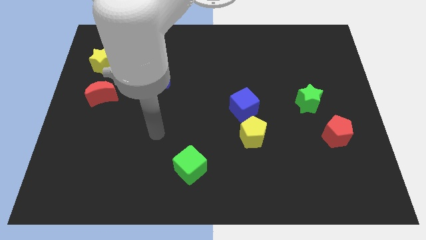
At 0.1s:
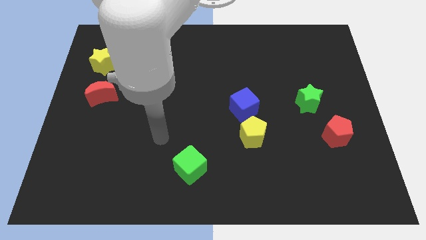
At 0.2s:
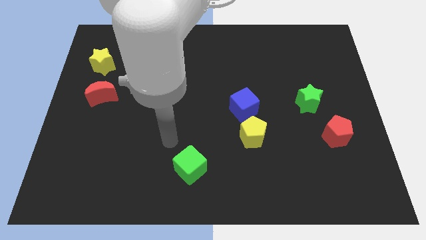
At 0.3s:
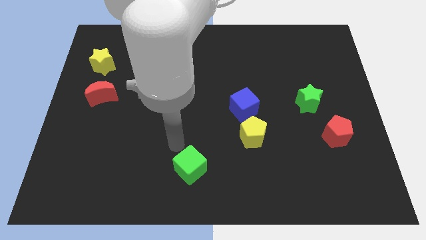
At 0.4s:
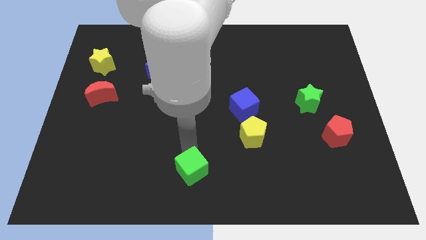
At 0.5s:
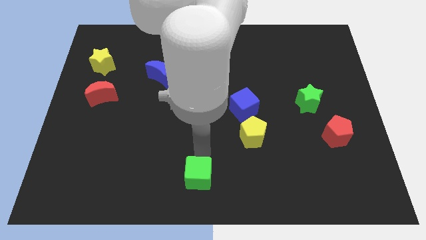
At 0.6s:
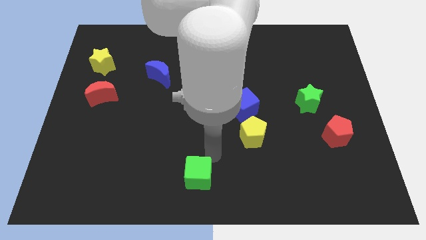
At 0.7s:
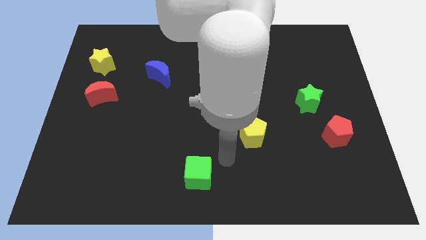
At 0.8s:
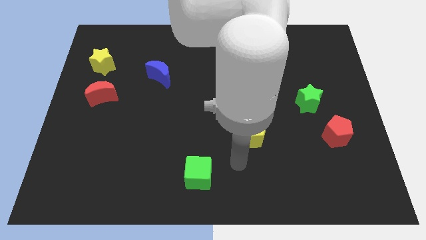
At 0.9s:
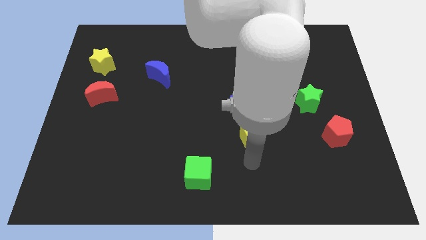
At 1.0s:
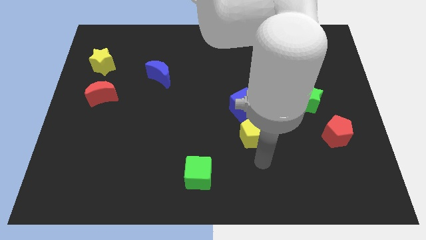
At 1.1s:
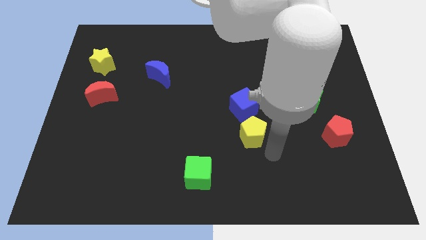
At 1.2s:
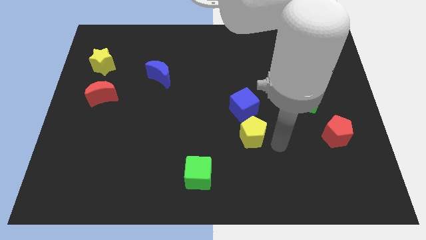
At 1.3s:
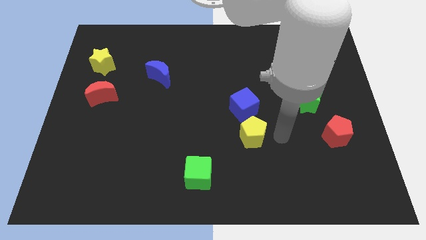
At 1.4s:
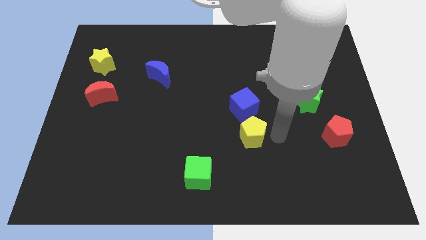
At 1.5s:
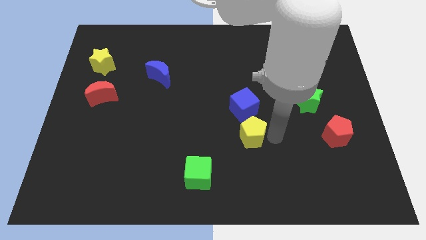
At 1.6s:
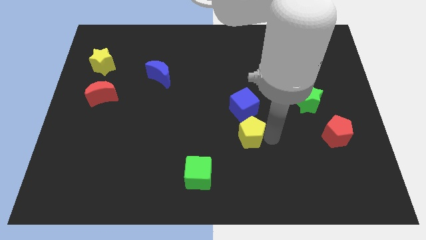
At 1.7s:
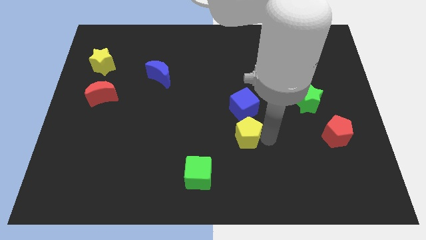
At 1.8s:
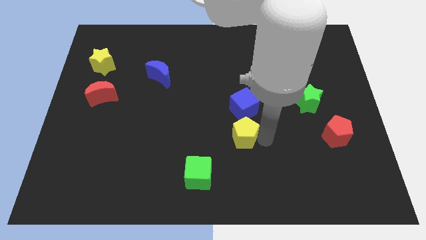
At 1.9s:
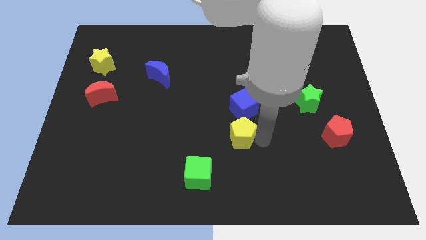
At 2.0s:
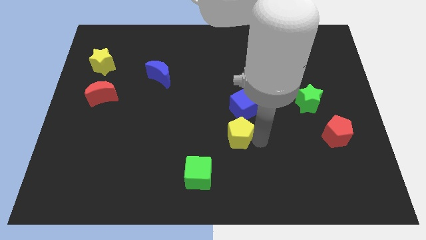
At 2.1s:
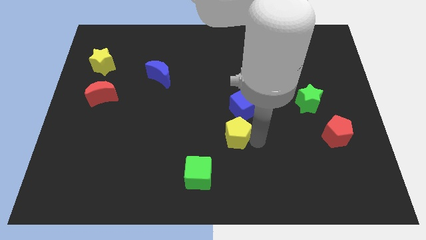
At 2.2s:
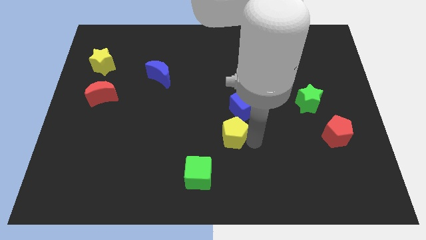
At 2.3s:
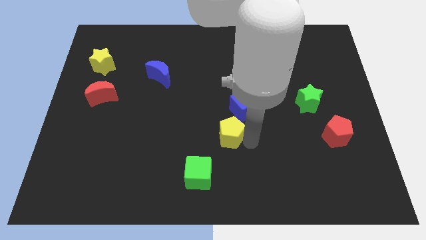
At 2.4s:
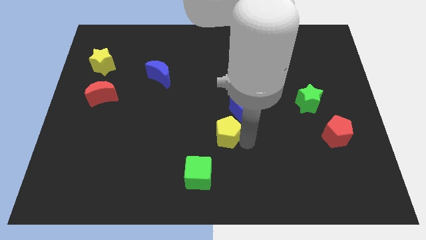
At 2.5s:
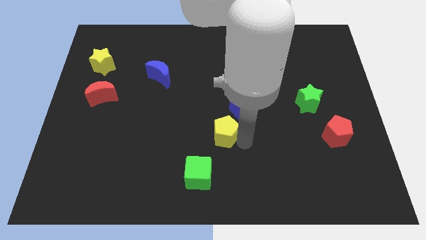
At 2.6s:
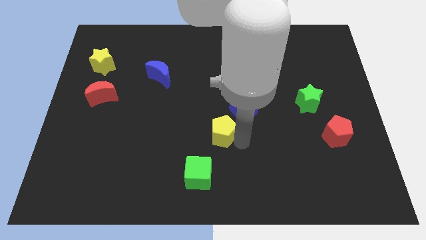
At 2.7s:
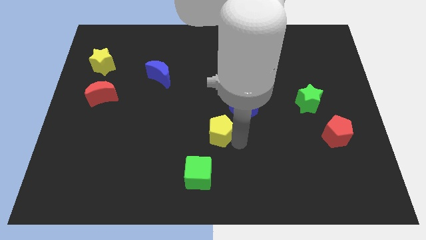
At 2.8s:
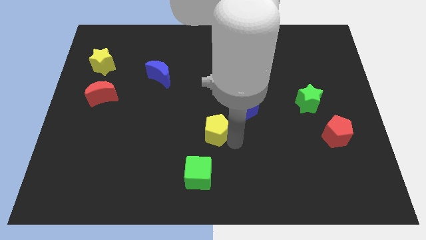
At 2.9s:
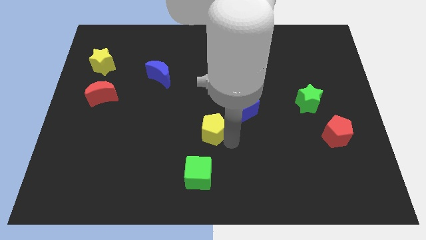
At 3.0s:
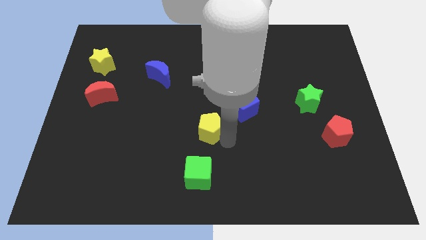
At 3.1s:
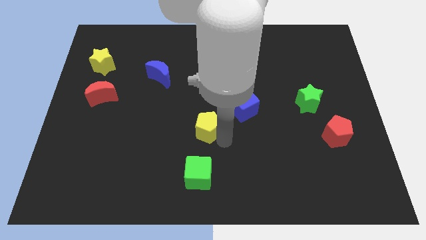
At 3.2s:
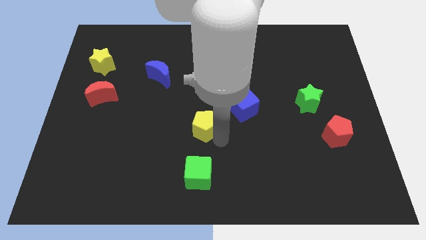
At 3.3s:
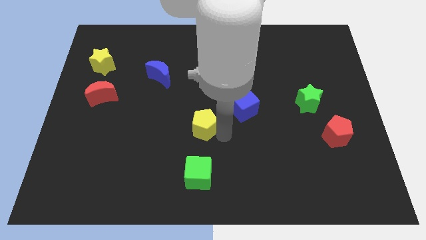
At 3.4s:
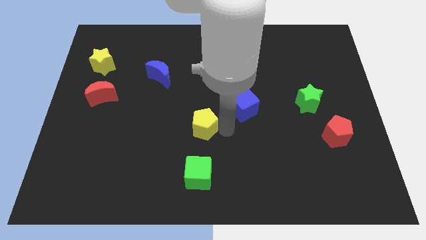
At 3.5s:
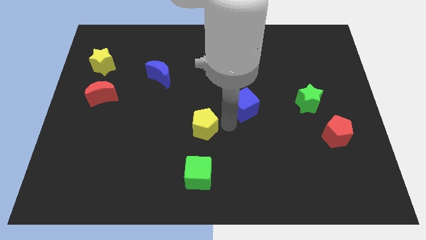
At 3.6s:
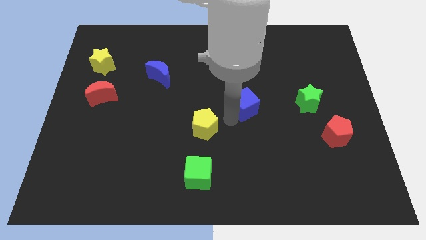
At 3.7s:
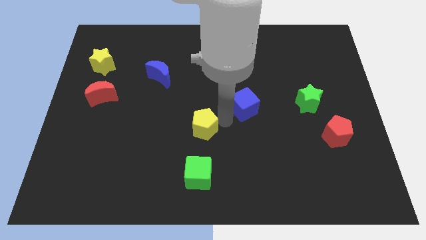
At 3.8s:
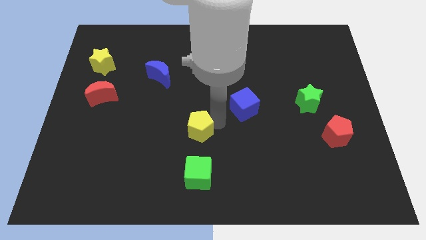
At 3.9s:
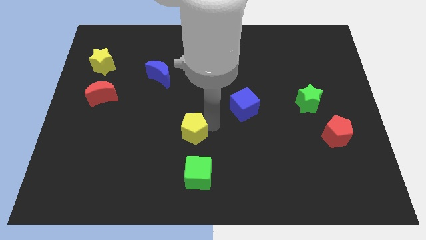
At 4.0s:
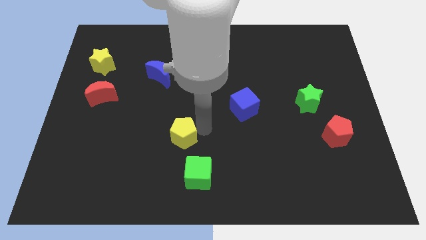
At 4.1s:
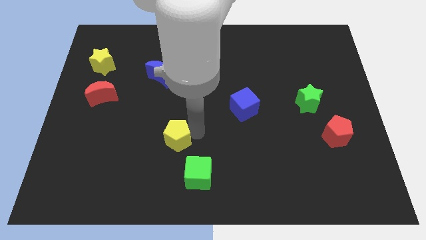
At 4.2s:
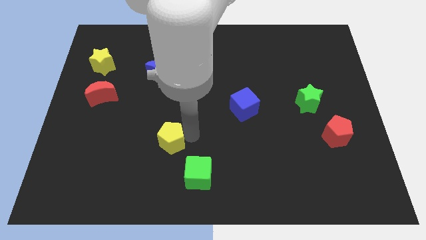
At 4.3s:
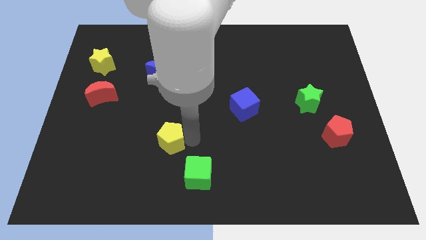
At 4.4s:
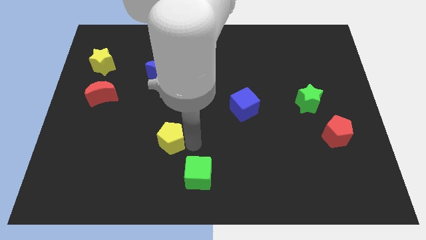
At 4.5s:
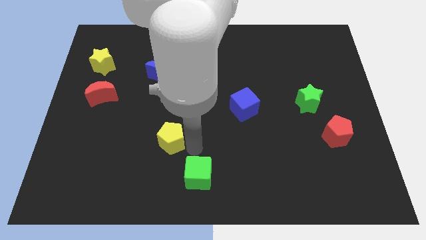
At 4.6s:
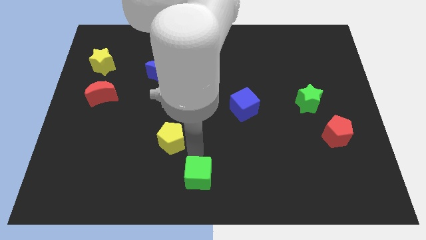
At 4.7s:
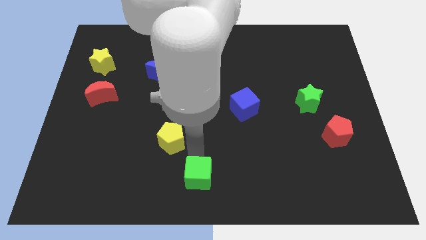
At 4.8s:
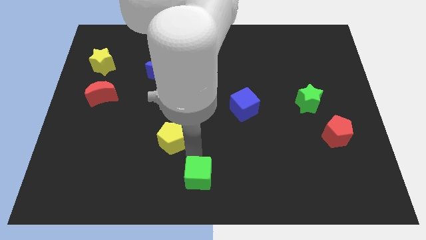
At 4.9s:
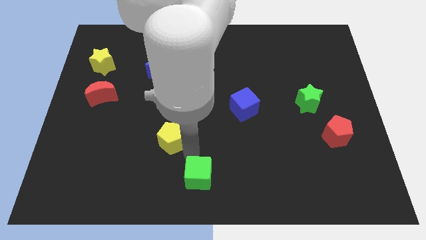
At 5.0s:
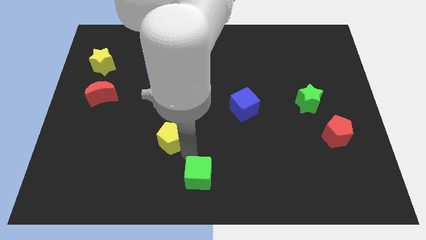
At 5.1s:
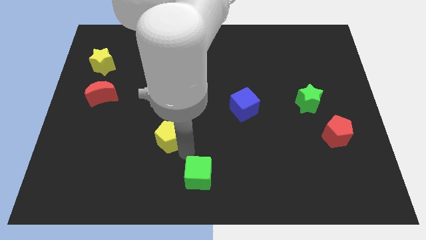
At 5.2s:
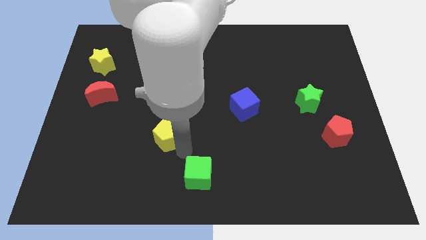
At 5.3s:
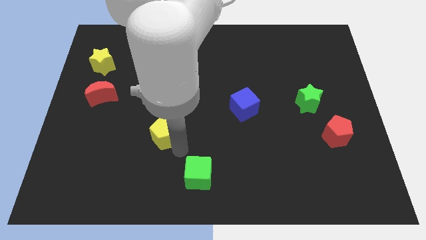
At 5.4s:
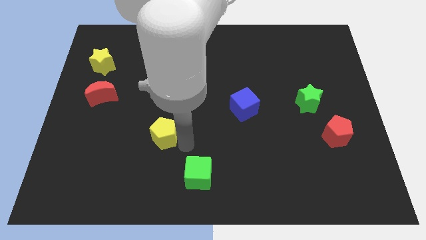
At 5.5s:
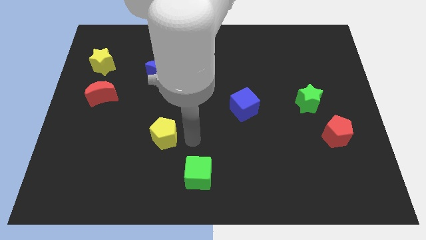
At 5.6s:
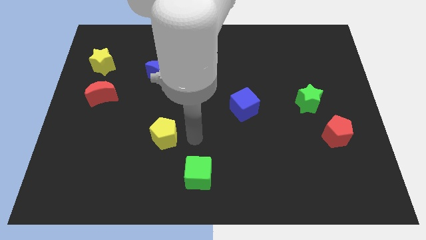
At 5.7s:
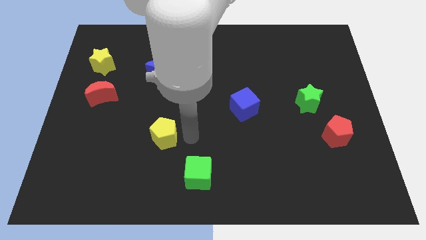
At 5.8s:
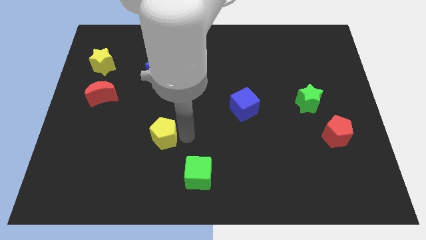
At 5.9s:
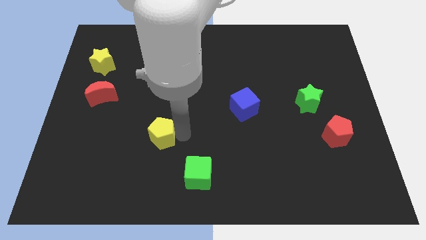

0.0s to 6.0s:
slide the yellow pentagon left

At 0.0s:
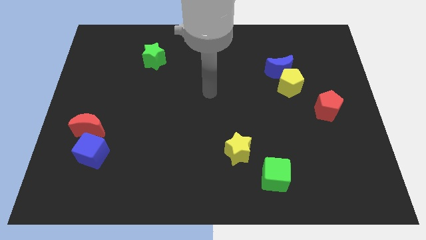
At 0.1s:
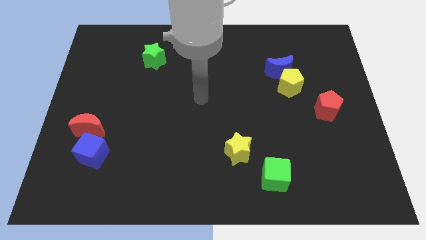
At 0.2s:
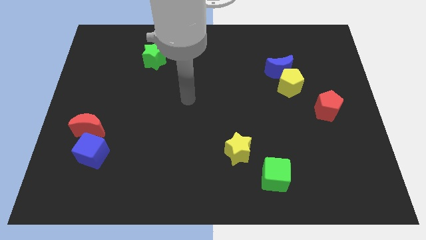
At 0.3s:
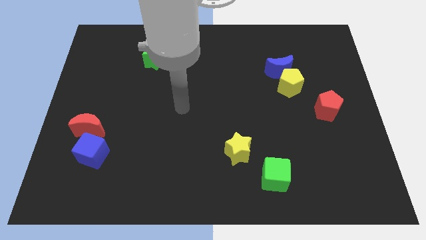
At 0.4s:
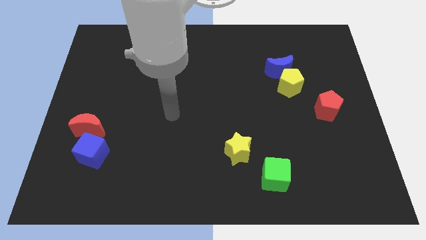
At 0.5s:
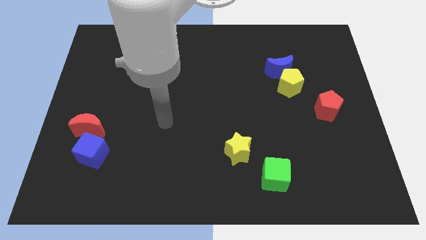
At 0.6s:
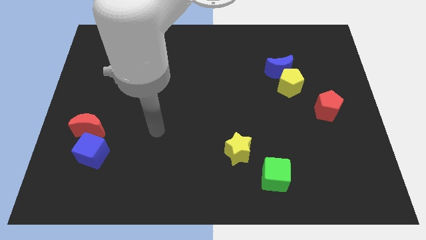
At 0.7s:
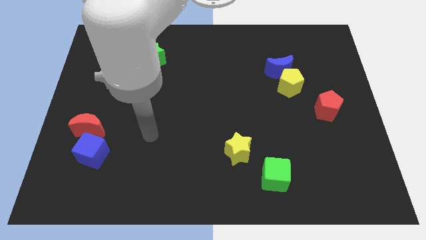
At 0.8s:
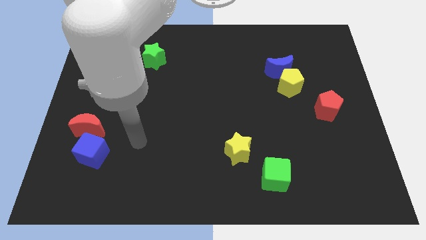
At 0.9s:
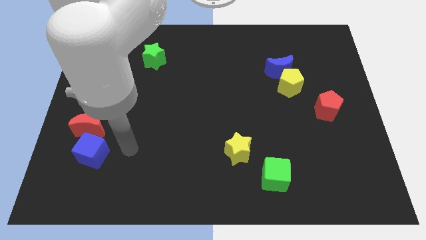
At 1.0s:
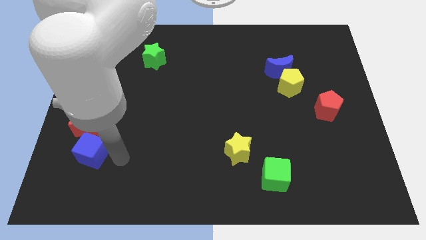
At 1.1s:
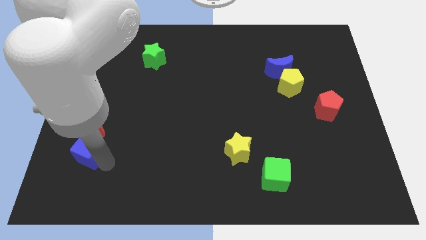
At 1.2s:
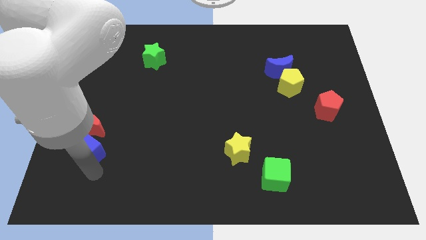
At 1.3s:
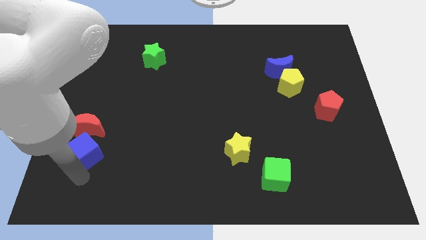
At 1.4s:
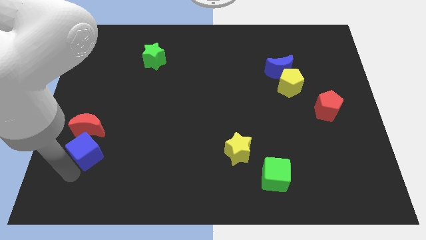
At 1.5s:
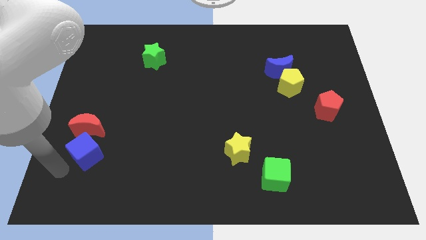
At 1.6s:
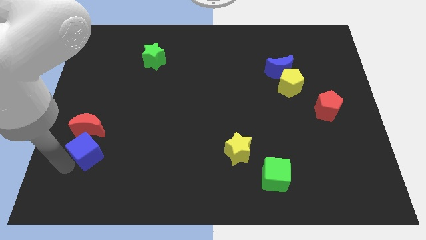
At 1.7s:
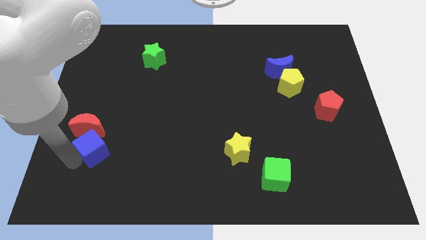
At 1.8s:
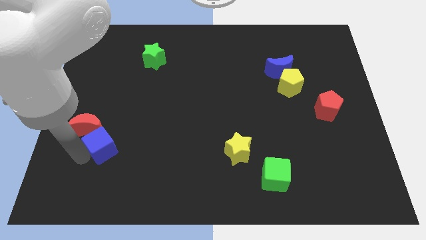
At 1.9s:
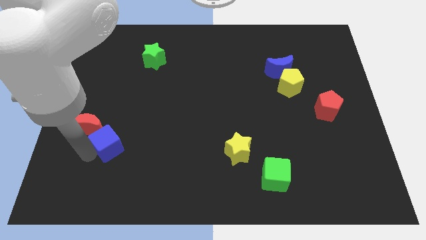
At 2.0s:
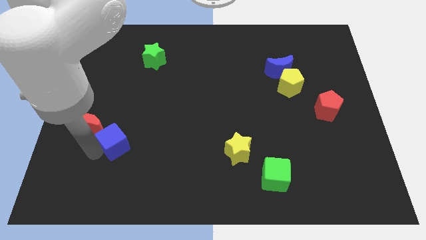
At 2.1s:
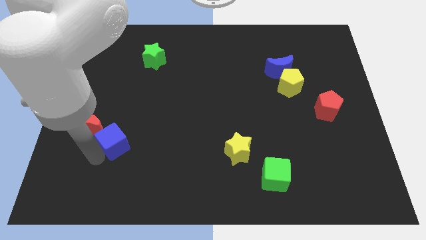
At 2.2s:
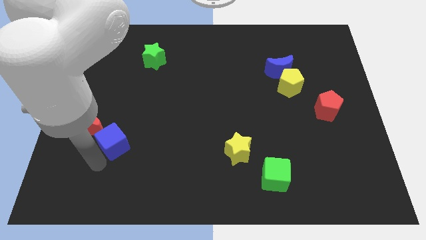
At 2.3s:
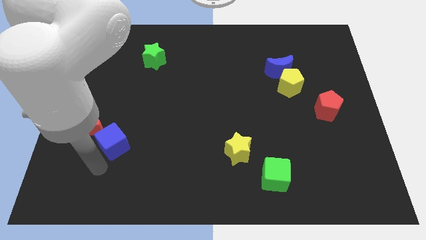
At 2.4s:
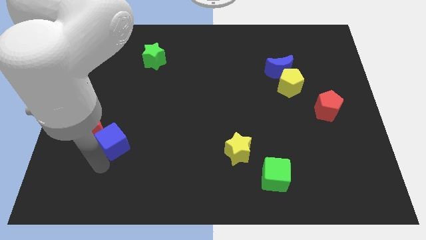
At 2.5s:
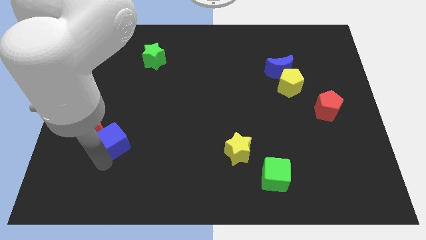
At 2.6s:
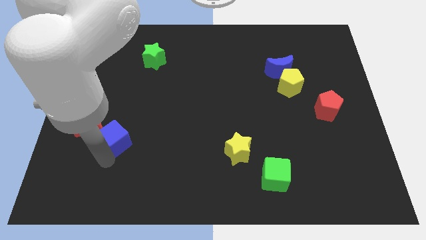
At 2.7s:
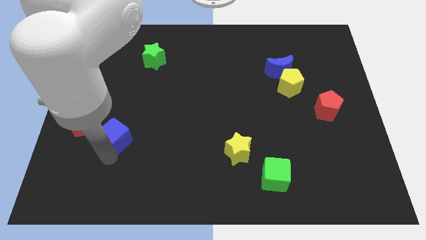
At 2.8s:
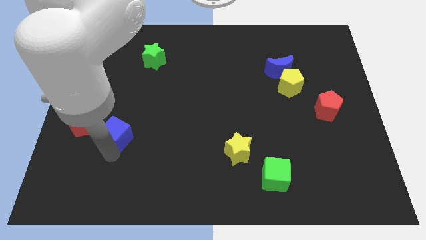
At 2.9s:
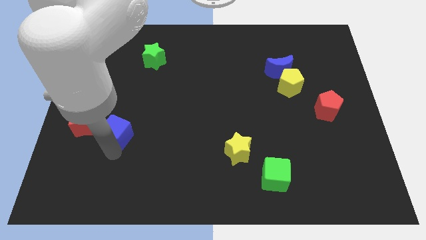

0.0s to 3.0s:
slightly push the blue cube diagonally upwards and right
